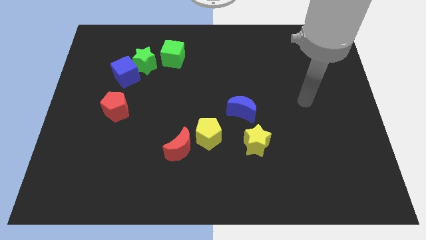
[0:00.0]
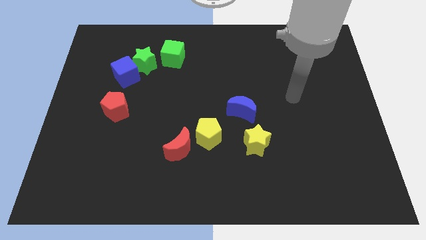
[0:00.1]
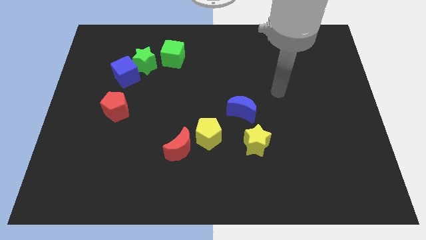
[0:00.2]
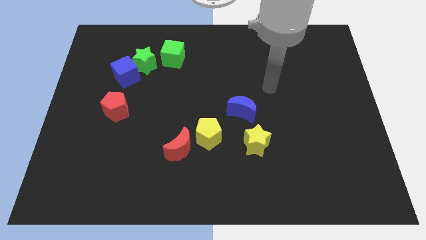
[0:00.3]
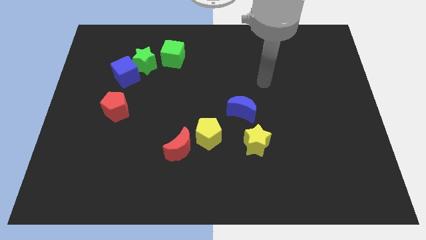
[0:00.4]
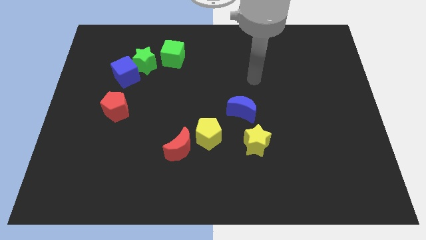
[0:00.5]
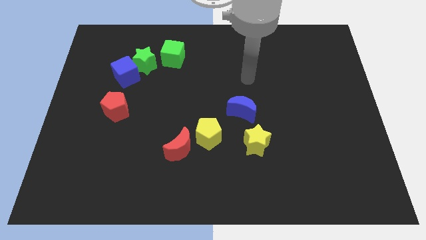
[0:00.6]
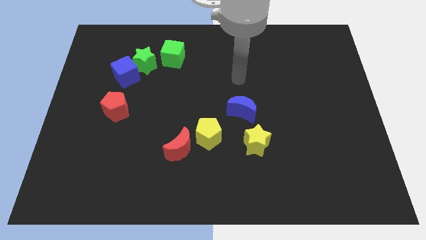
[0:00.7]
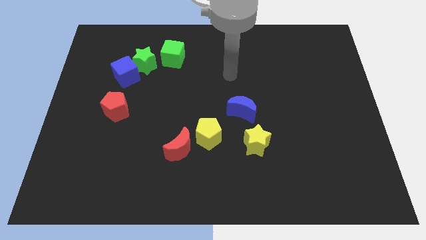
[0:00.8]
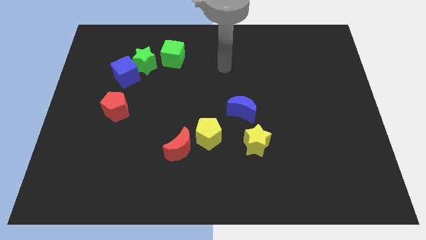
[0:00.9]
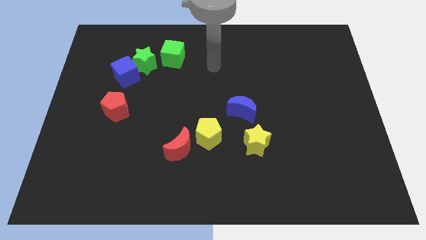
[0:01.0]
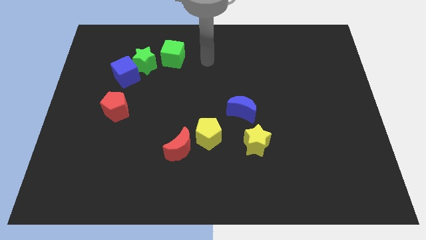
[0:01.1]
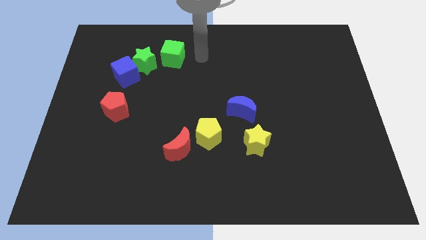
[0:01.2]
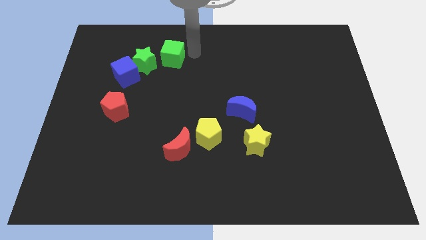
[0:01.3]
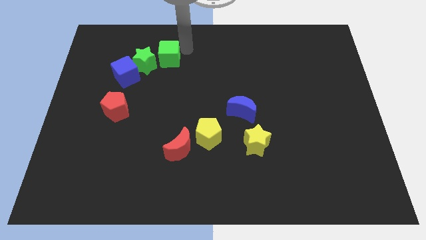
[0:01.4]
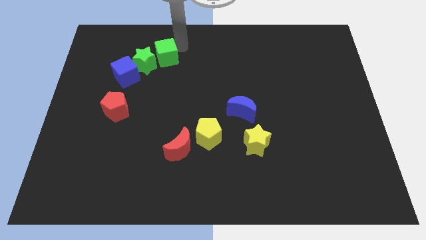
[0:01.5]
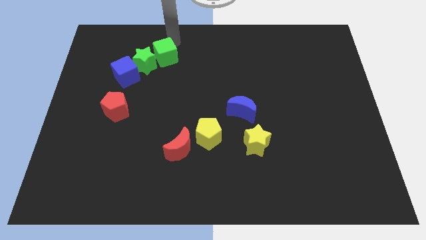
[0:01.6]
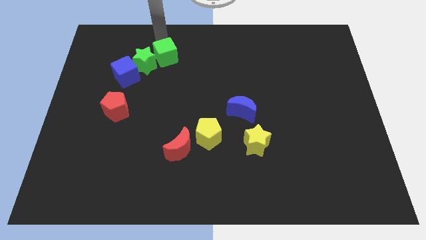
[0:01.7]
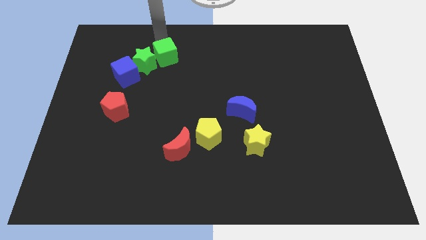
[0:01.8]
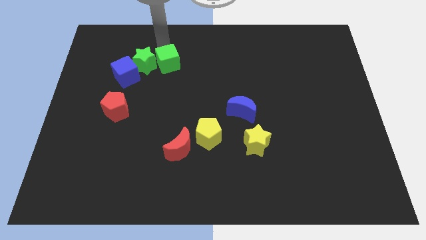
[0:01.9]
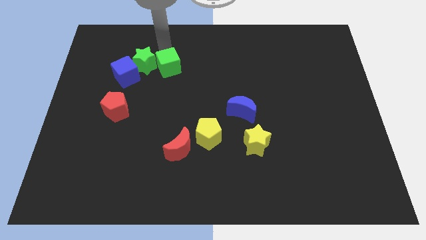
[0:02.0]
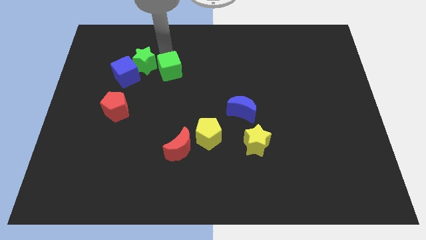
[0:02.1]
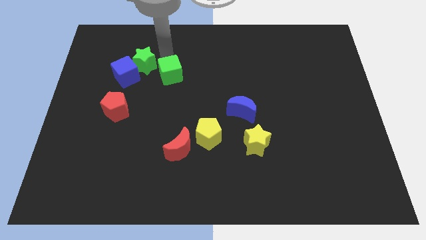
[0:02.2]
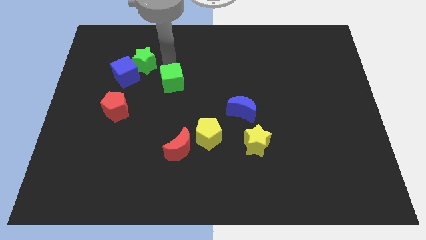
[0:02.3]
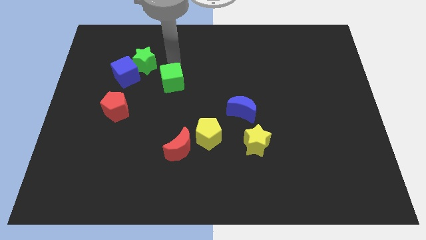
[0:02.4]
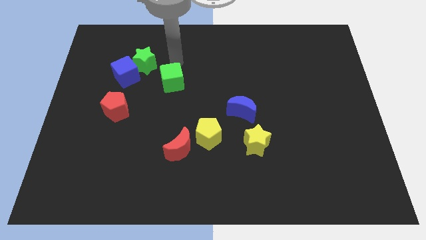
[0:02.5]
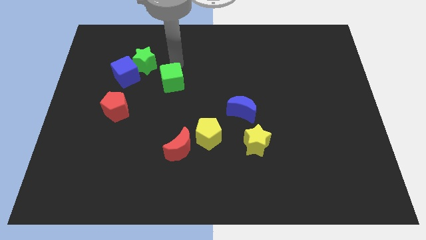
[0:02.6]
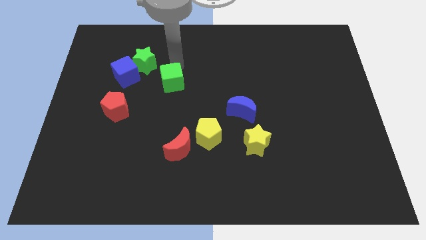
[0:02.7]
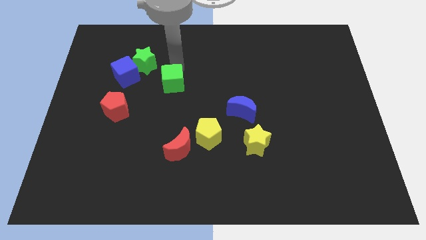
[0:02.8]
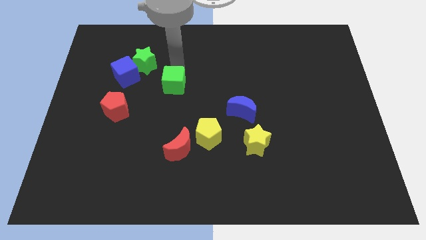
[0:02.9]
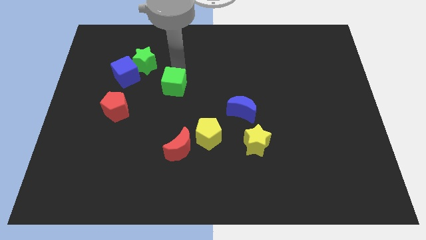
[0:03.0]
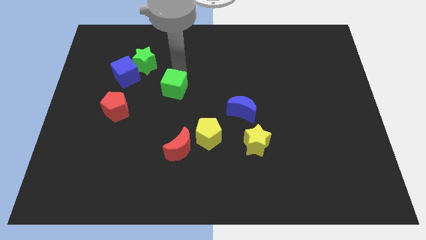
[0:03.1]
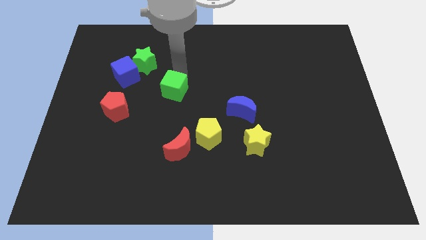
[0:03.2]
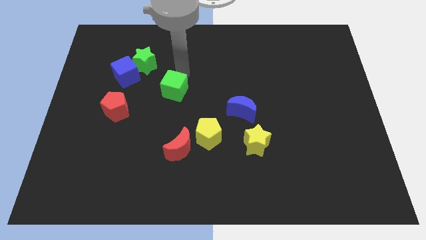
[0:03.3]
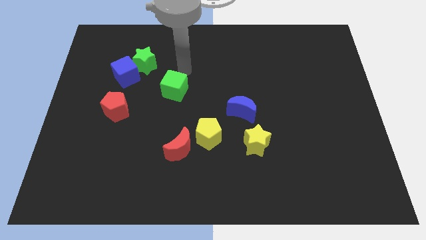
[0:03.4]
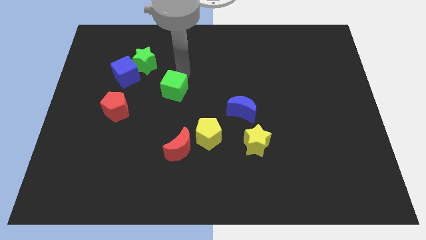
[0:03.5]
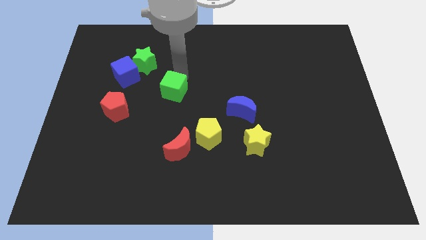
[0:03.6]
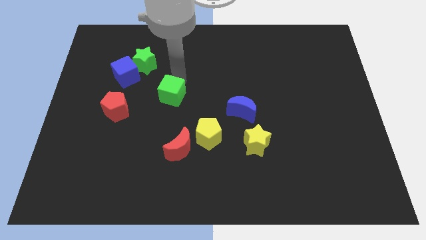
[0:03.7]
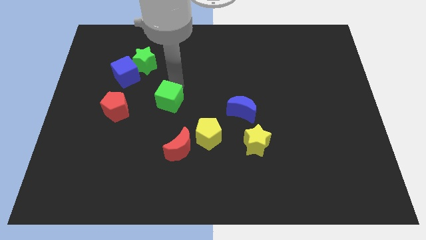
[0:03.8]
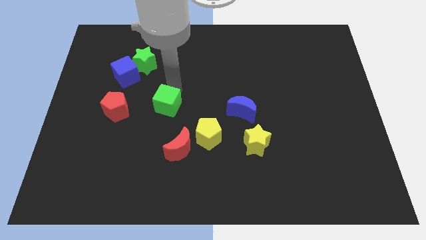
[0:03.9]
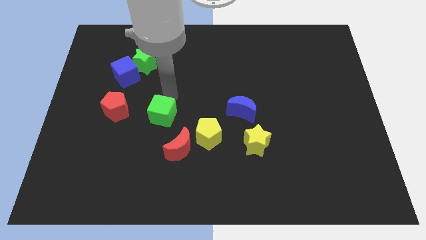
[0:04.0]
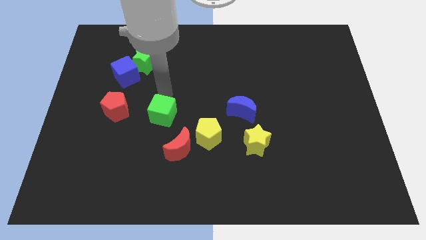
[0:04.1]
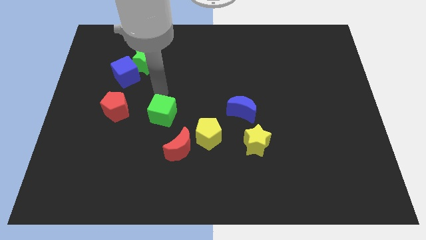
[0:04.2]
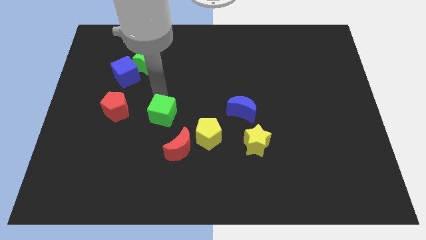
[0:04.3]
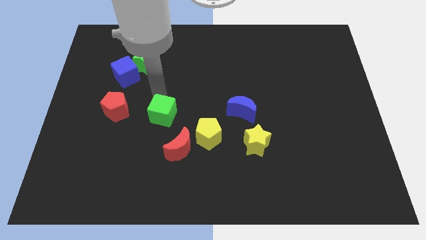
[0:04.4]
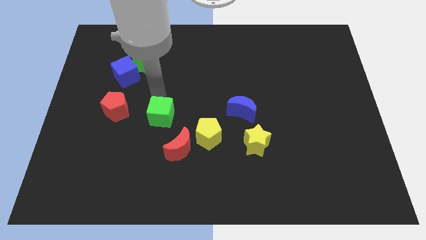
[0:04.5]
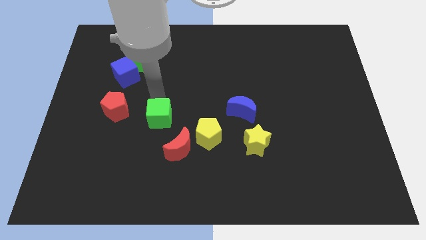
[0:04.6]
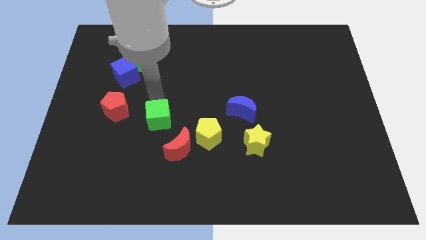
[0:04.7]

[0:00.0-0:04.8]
move the green cube down

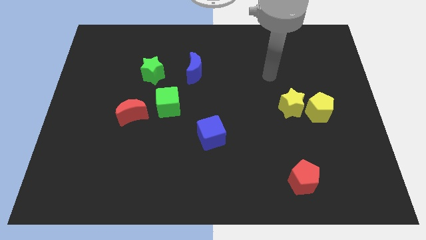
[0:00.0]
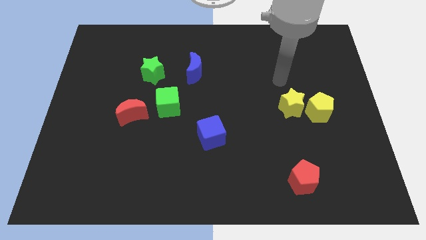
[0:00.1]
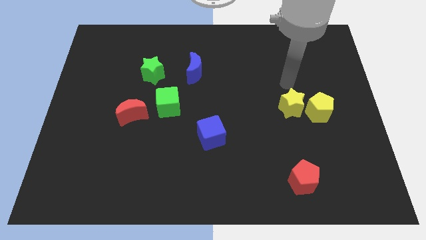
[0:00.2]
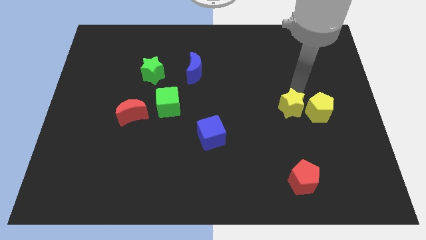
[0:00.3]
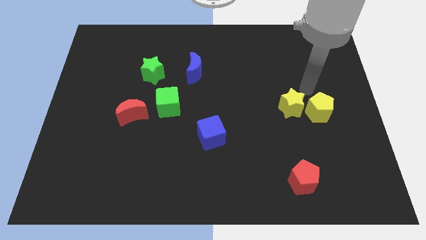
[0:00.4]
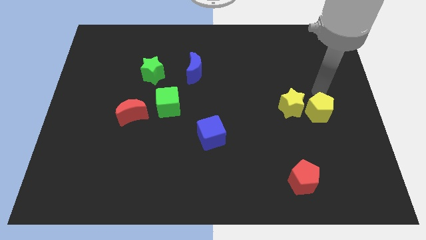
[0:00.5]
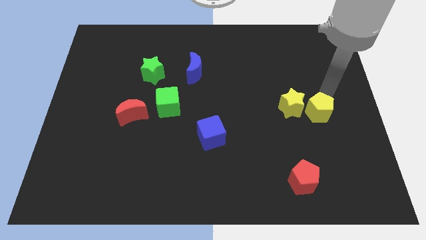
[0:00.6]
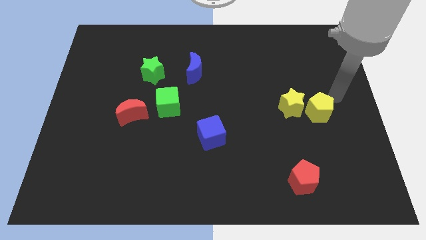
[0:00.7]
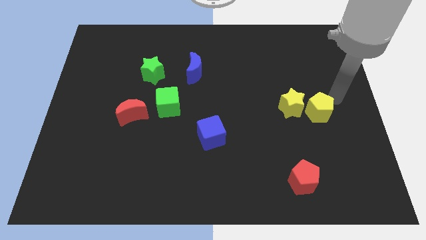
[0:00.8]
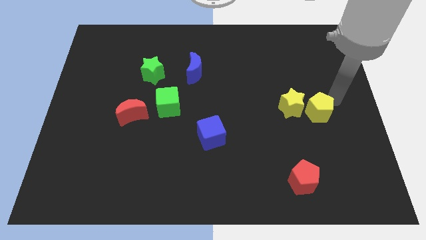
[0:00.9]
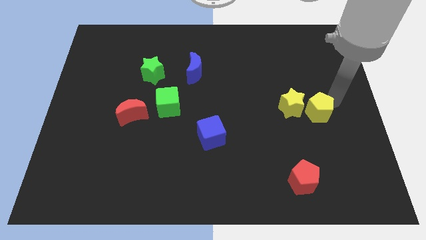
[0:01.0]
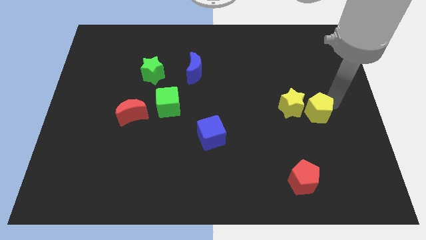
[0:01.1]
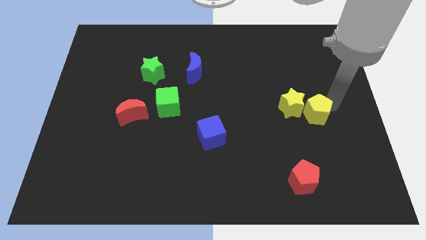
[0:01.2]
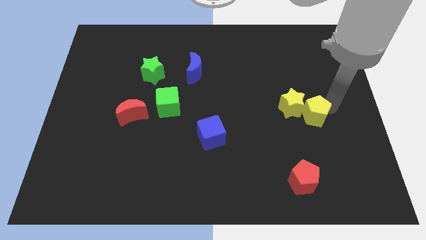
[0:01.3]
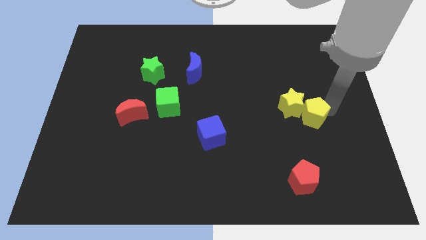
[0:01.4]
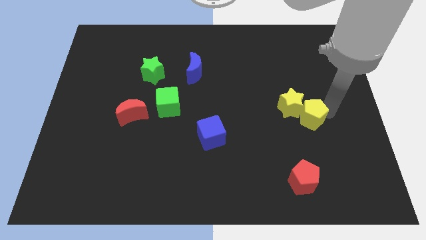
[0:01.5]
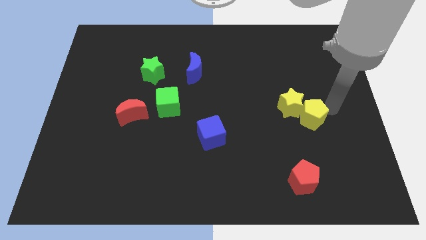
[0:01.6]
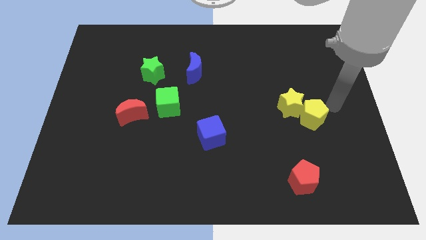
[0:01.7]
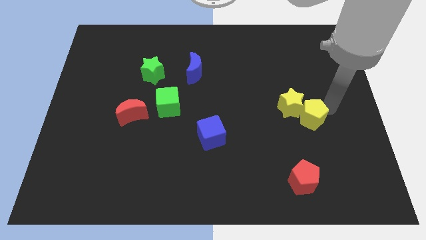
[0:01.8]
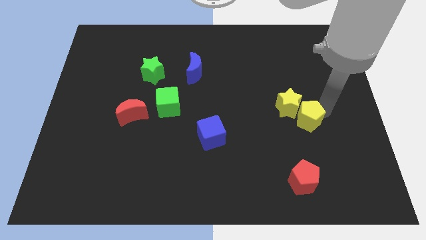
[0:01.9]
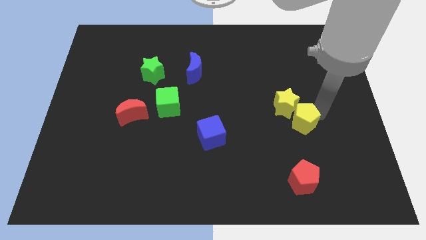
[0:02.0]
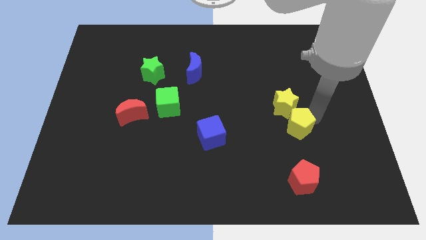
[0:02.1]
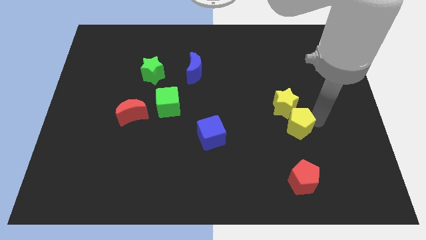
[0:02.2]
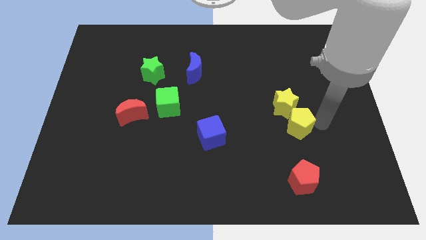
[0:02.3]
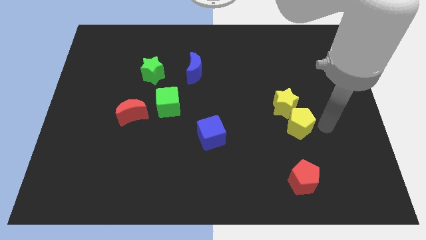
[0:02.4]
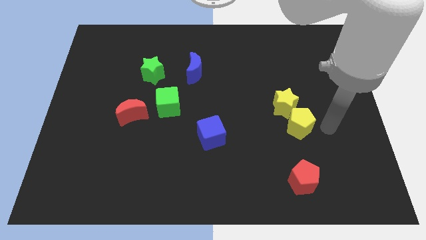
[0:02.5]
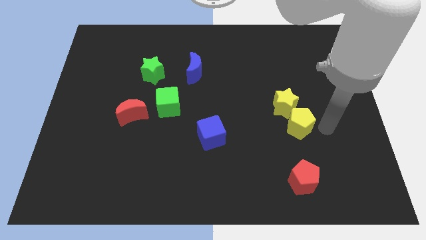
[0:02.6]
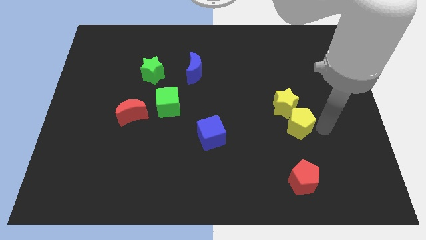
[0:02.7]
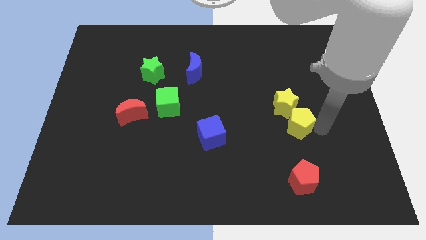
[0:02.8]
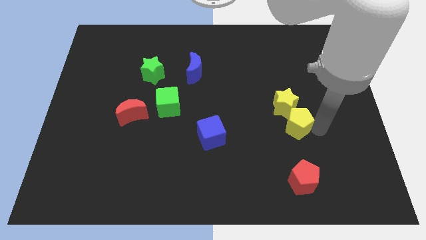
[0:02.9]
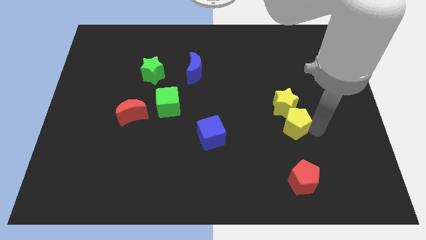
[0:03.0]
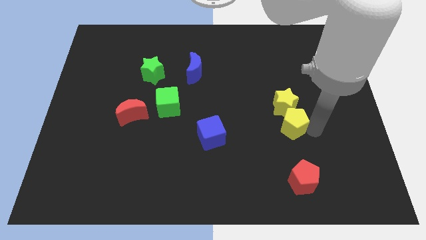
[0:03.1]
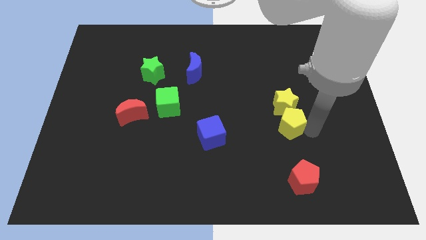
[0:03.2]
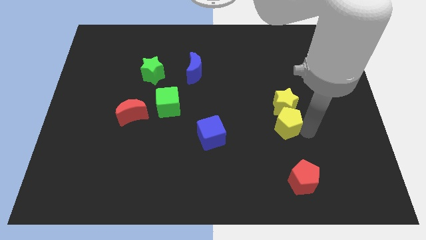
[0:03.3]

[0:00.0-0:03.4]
push the yellow pentagon somewhat left

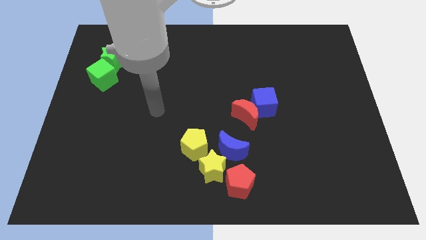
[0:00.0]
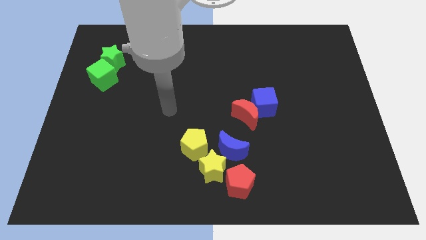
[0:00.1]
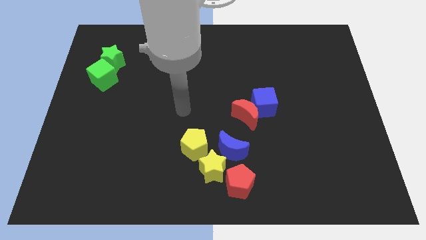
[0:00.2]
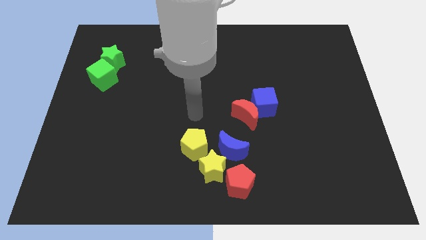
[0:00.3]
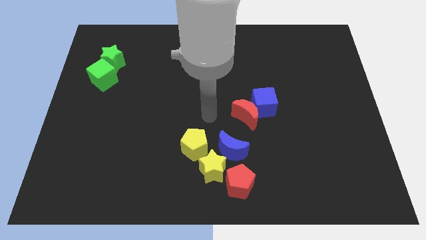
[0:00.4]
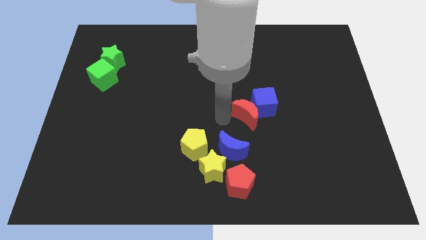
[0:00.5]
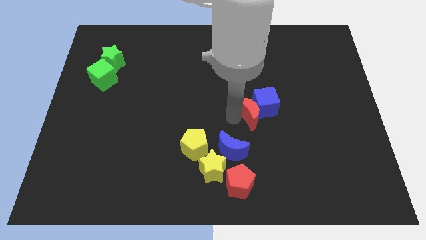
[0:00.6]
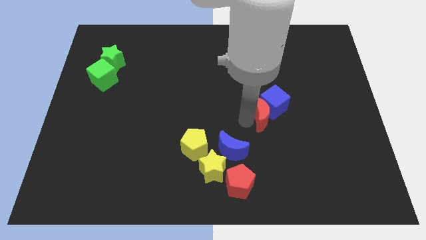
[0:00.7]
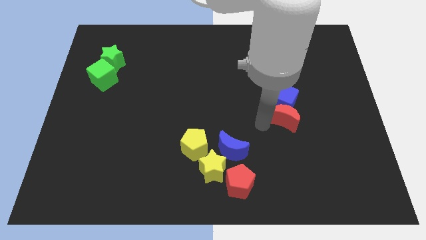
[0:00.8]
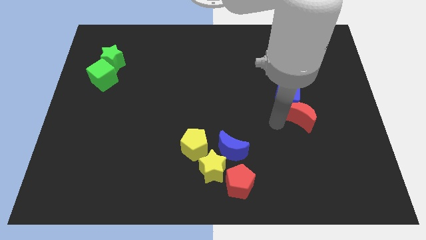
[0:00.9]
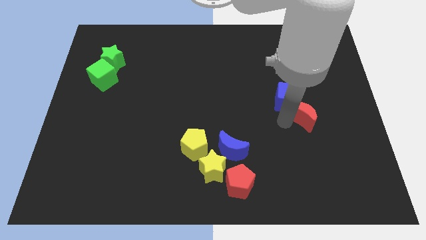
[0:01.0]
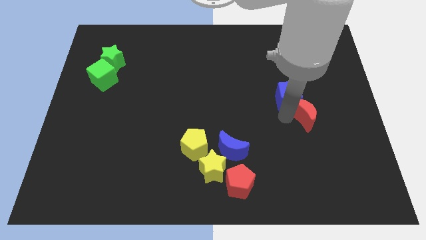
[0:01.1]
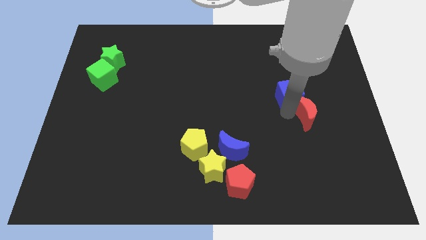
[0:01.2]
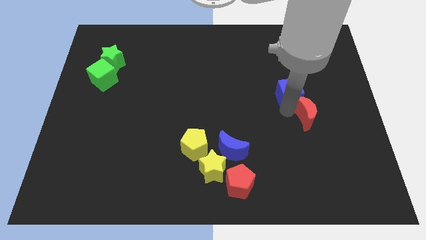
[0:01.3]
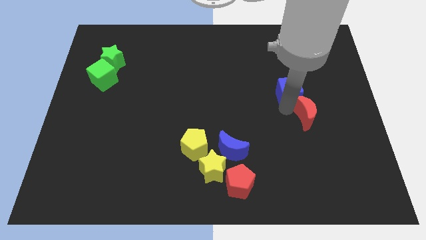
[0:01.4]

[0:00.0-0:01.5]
move the blue cube up and then to the right a bit
